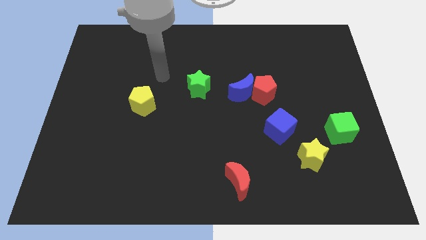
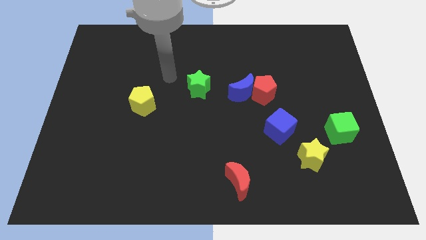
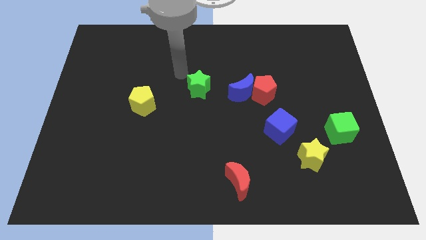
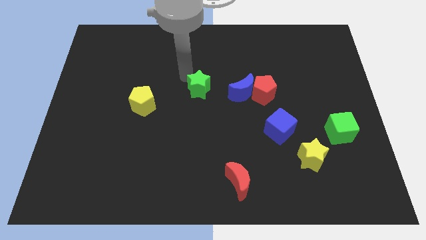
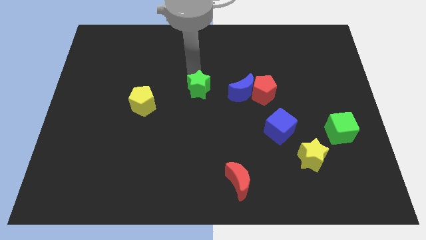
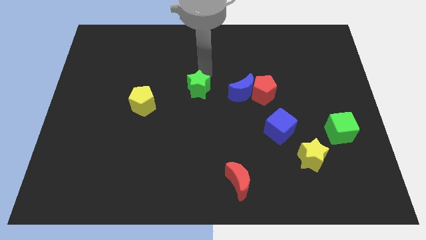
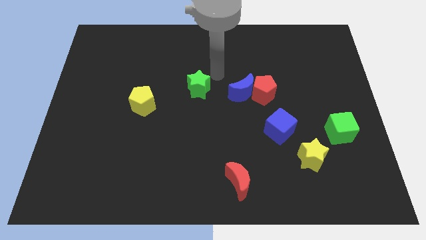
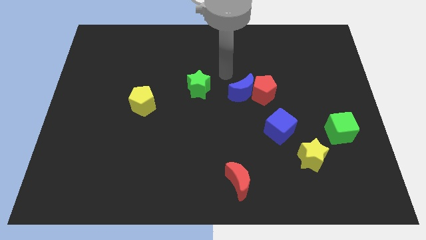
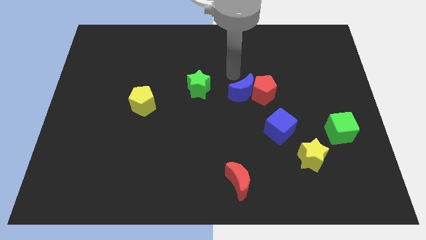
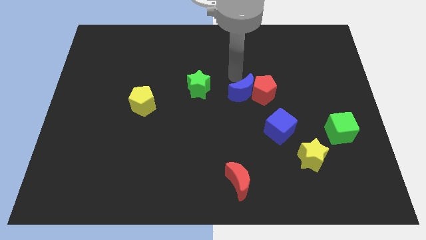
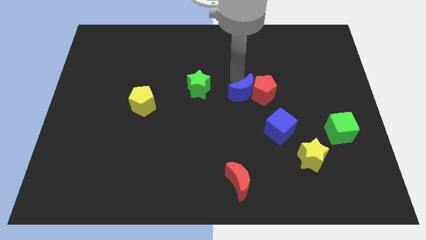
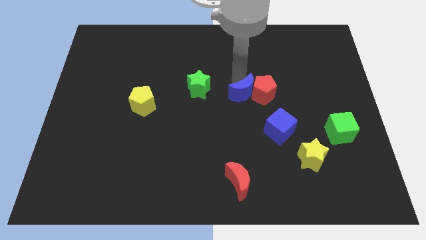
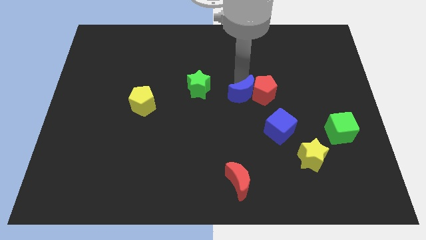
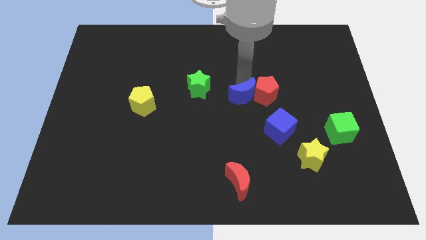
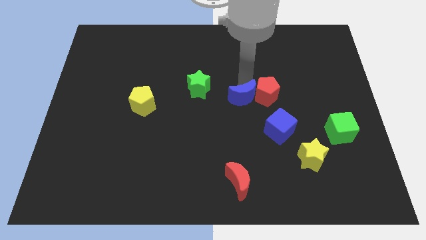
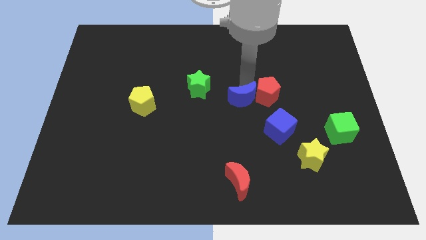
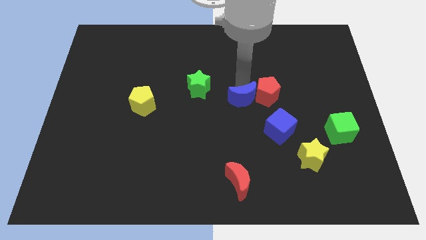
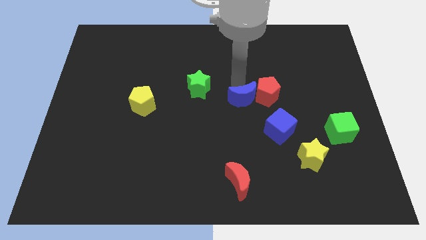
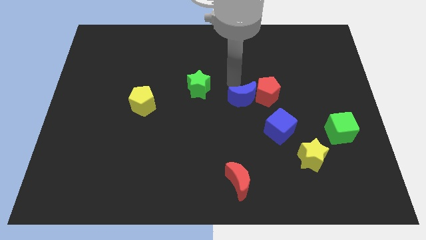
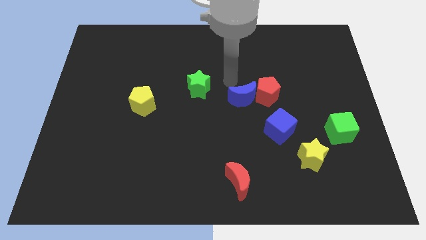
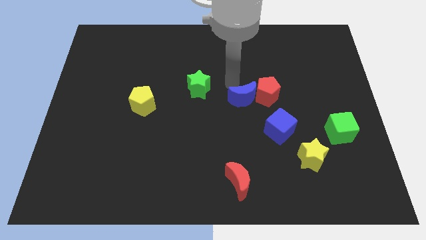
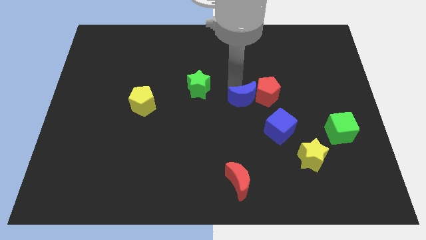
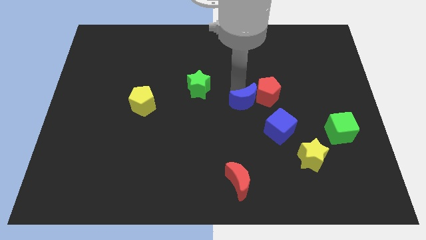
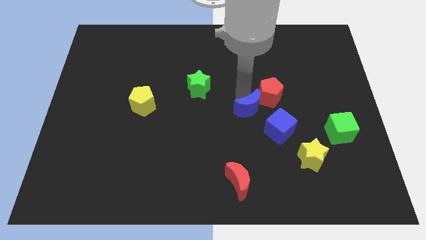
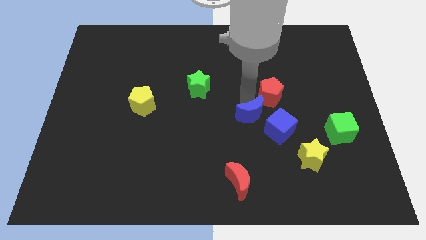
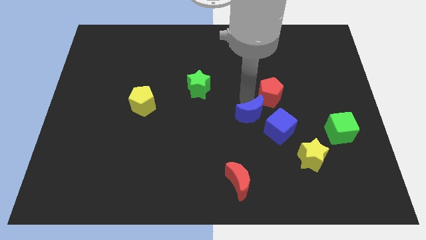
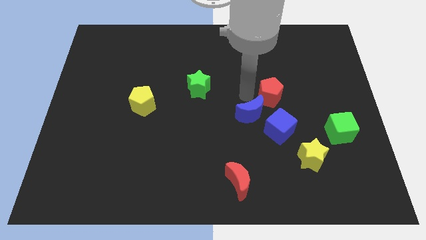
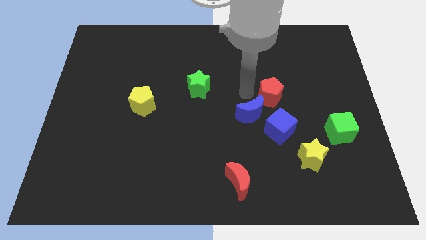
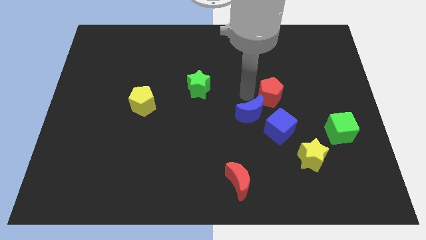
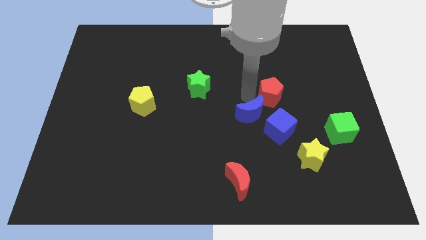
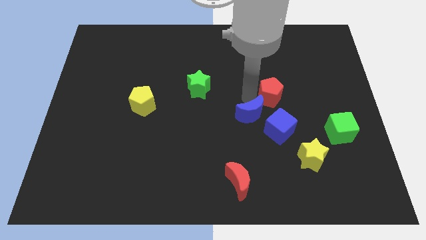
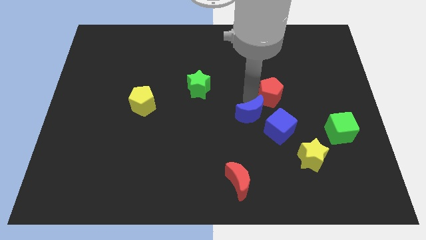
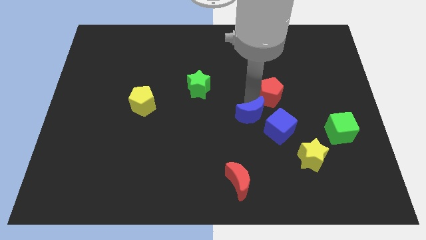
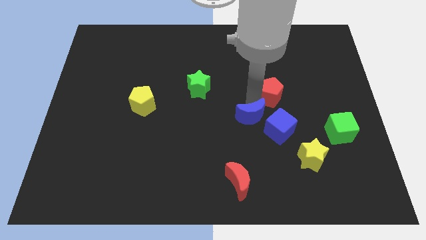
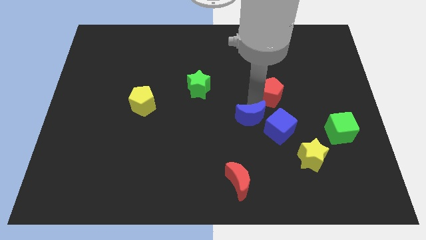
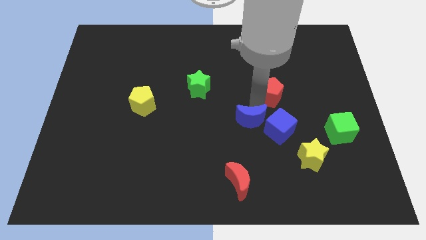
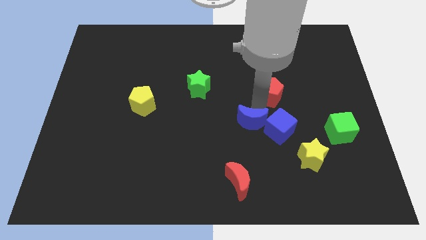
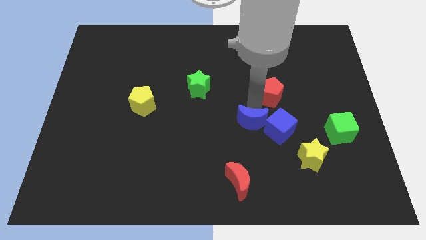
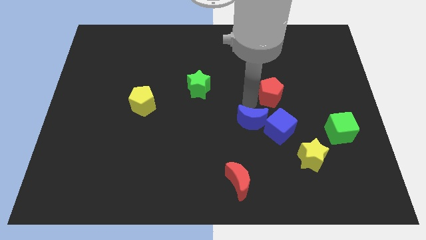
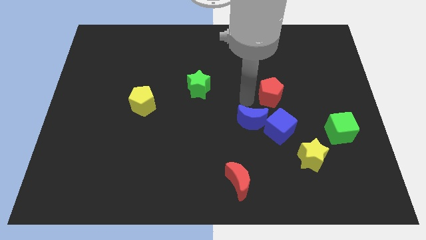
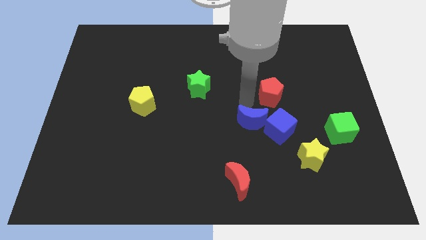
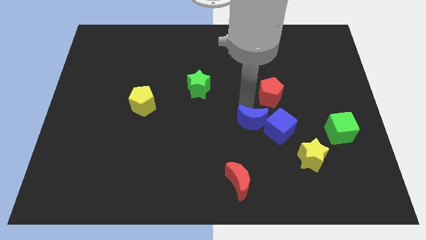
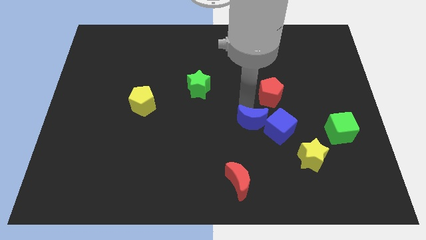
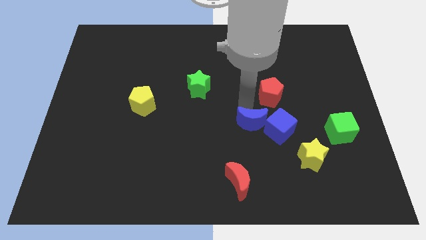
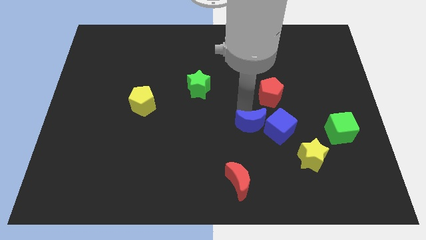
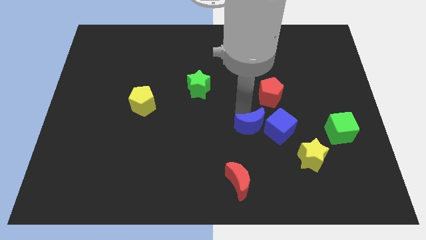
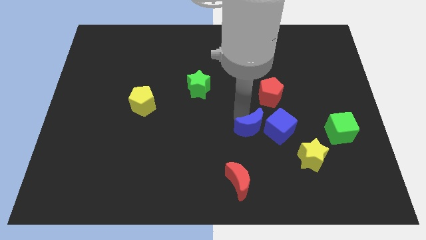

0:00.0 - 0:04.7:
push the blue moon to the bottom left of the blue cube

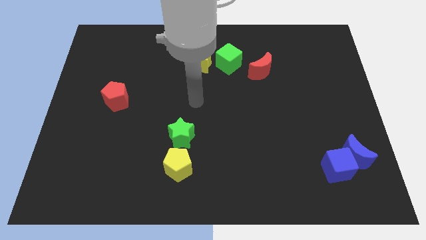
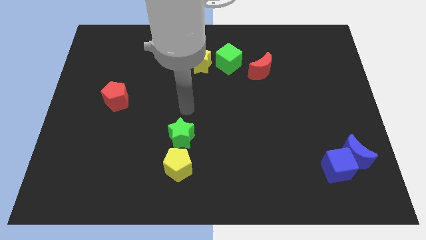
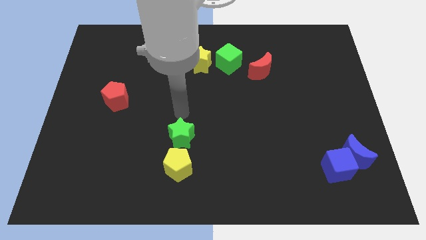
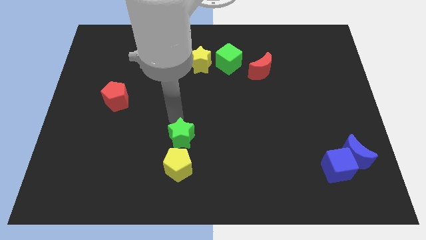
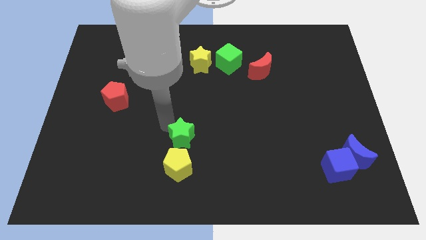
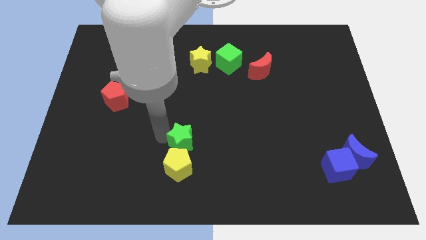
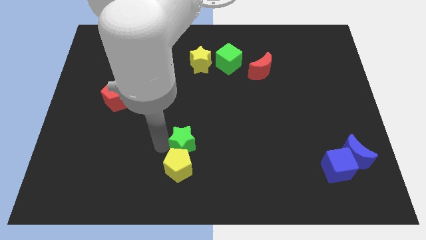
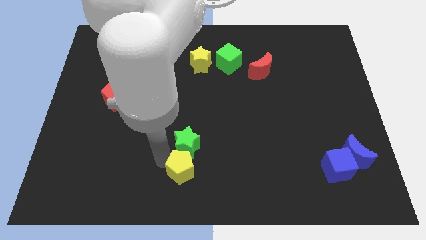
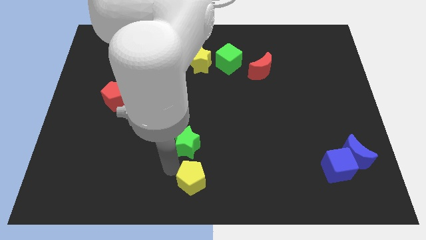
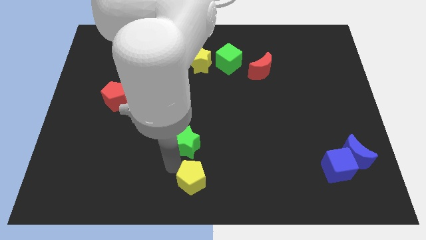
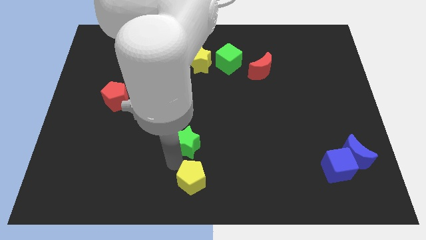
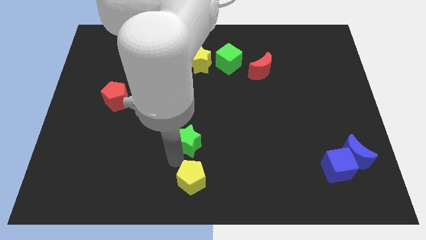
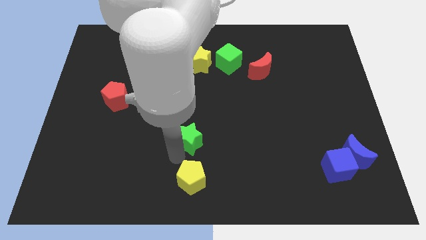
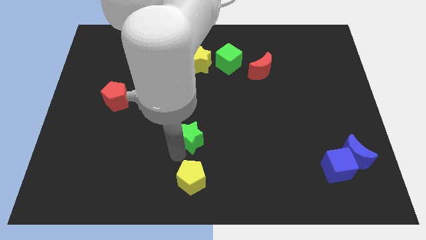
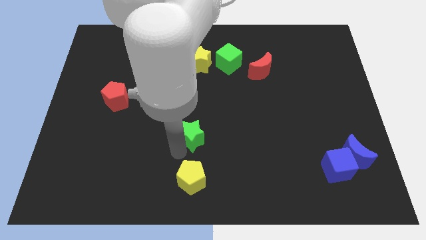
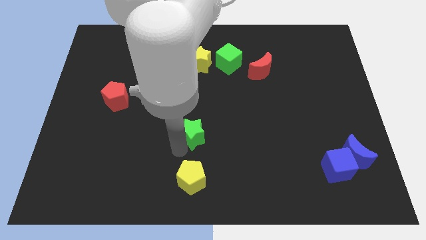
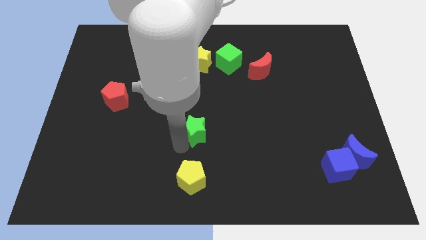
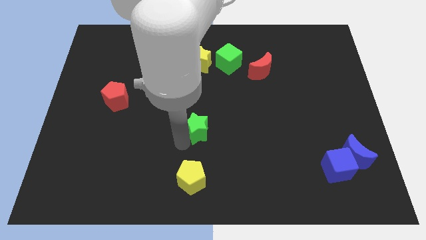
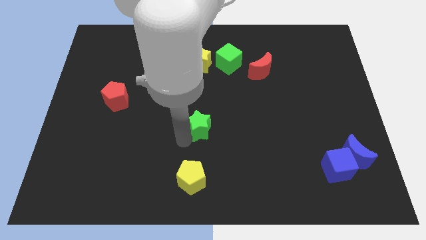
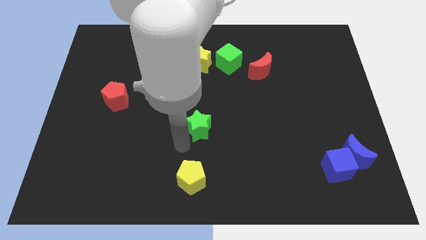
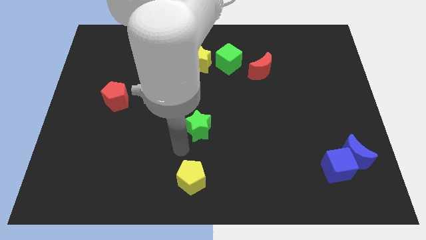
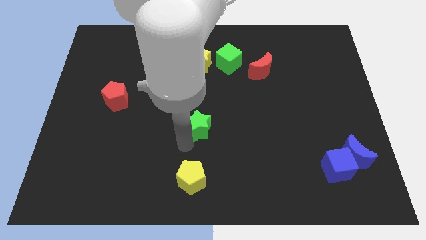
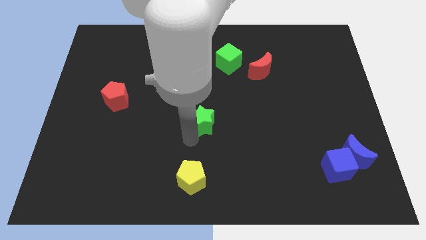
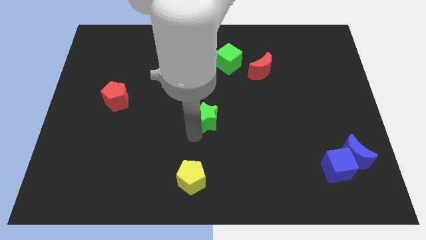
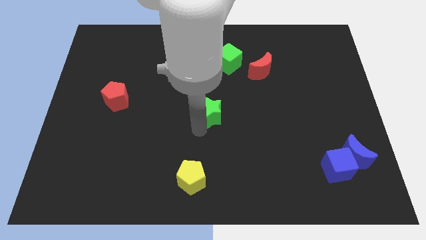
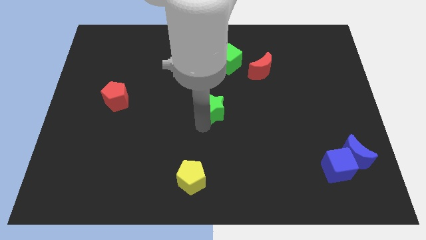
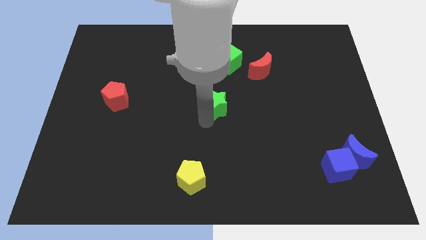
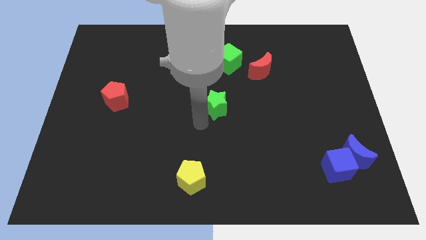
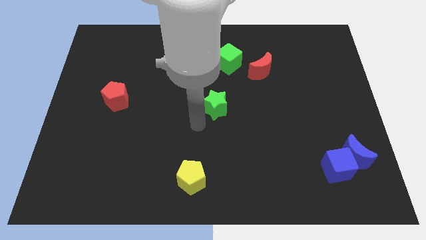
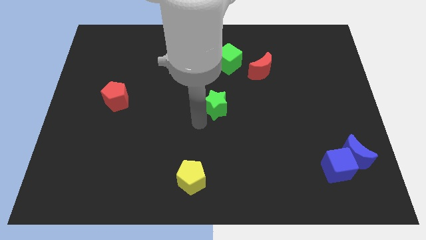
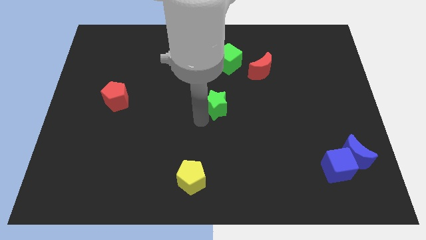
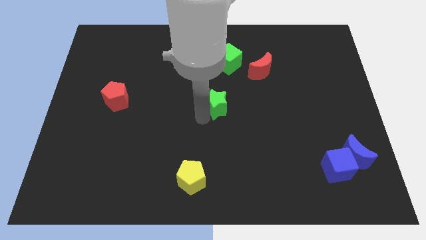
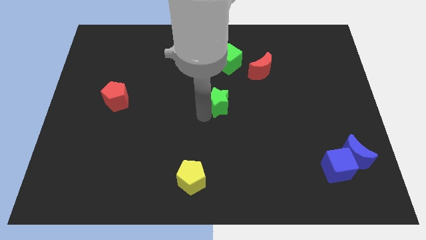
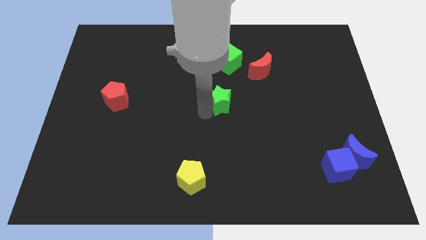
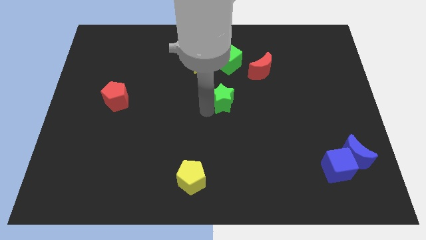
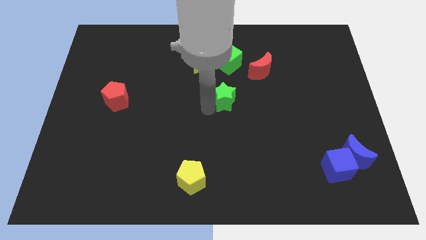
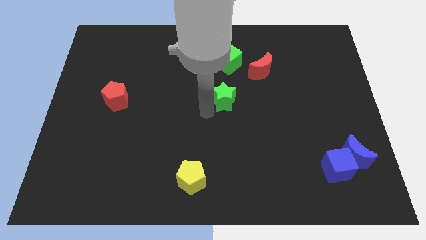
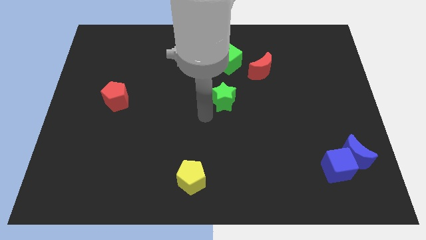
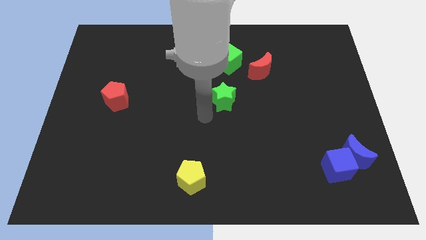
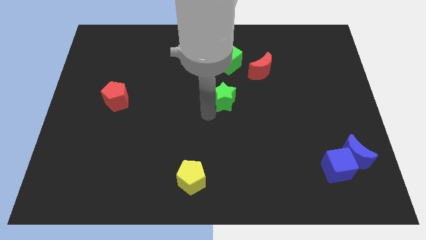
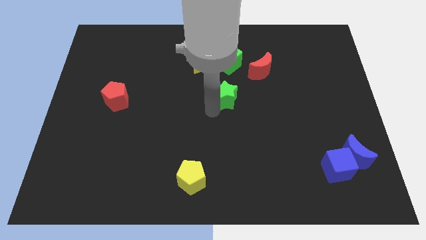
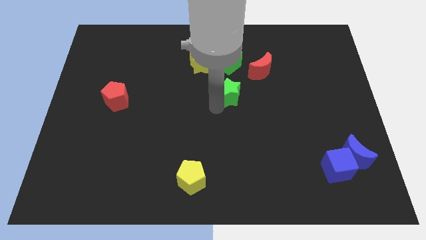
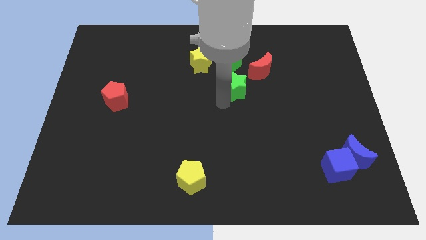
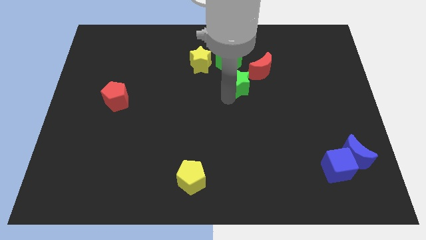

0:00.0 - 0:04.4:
move the green star to the bottom right side of the green cube
